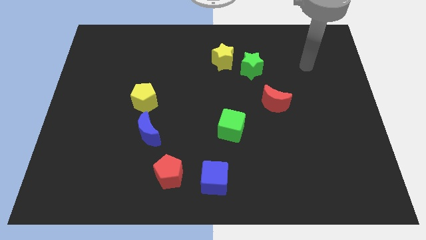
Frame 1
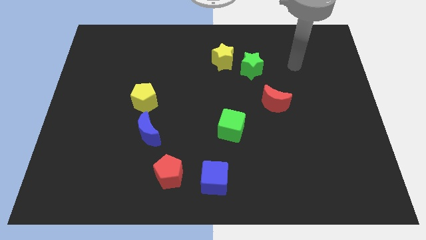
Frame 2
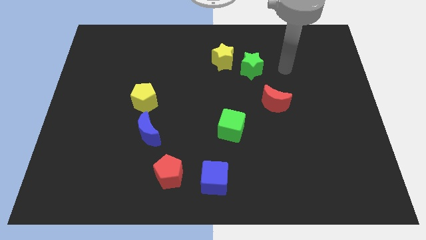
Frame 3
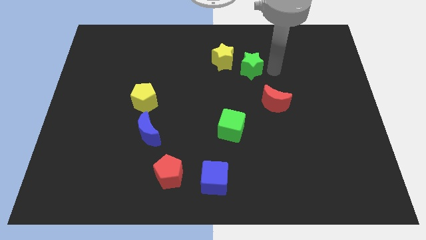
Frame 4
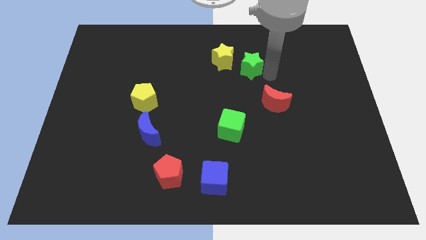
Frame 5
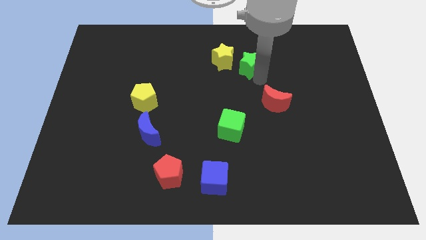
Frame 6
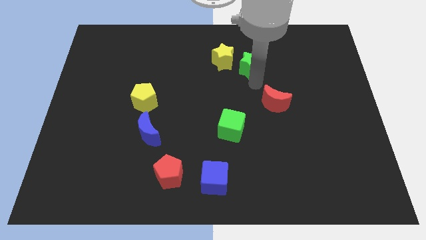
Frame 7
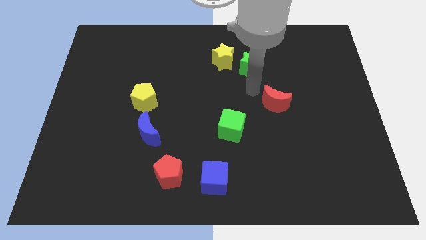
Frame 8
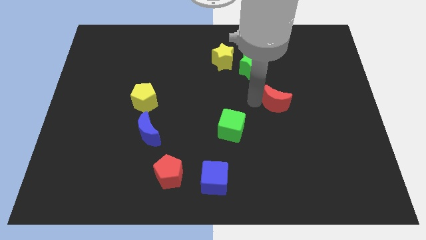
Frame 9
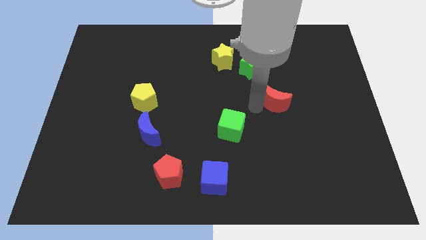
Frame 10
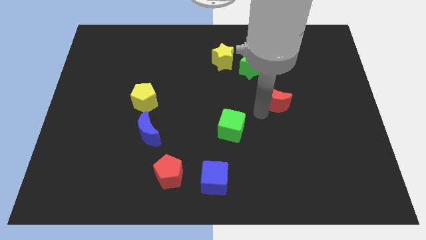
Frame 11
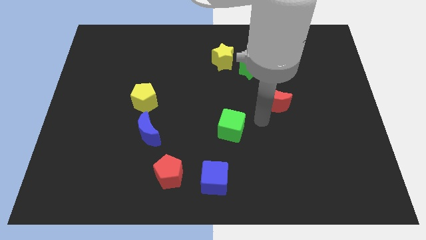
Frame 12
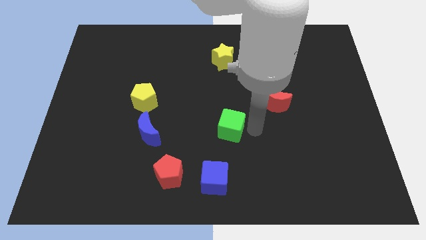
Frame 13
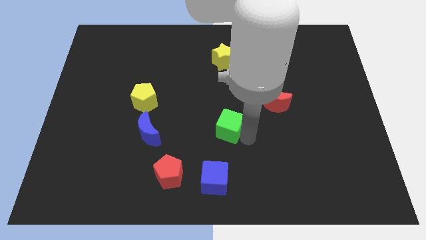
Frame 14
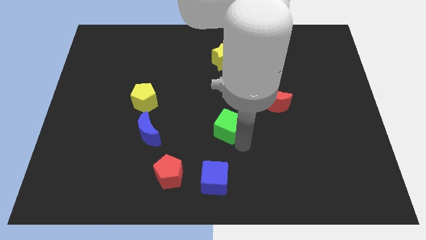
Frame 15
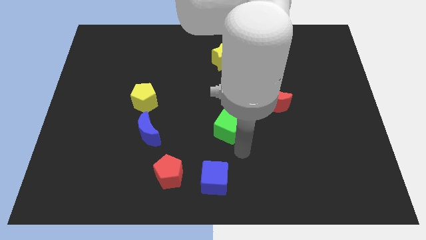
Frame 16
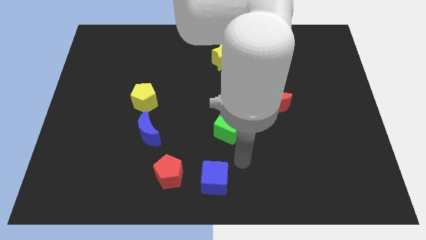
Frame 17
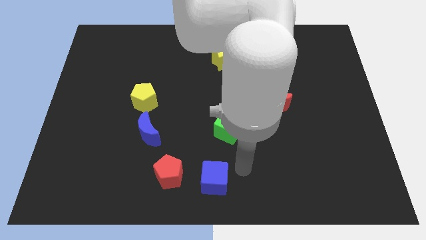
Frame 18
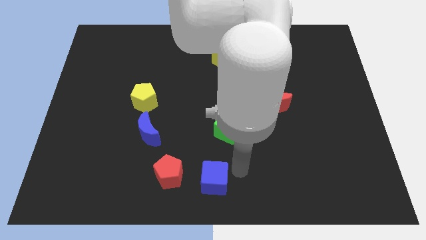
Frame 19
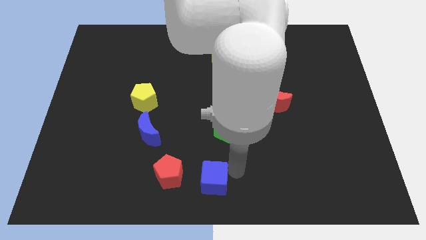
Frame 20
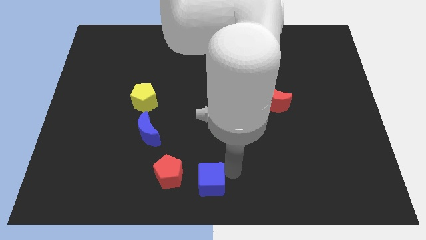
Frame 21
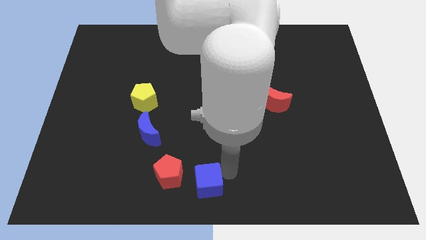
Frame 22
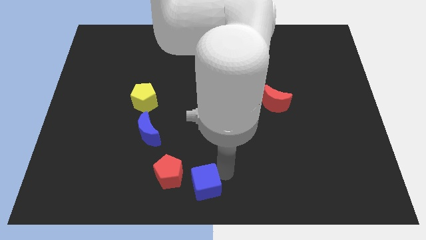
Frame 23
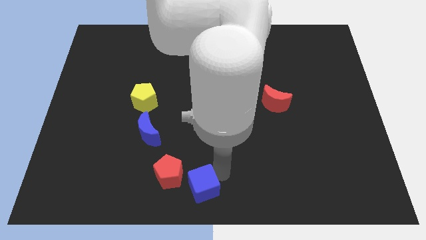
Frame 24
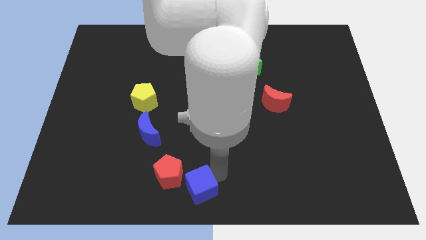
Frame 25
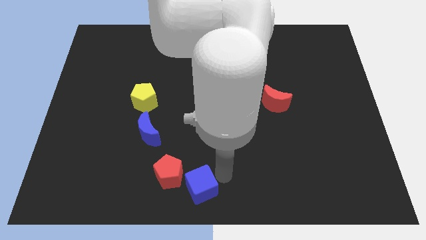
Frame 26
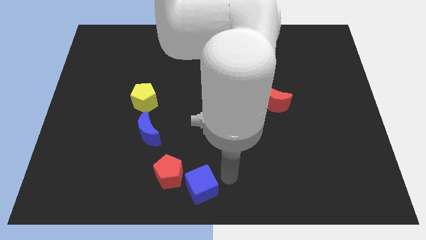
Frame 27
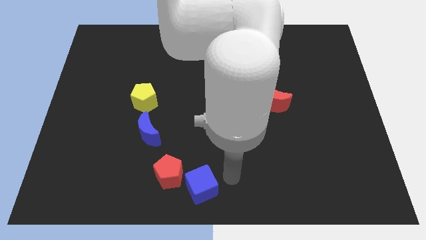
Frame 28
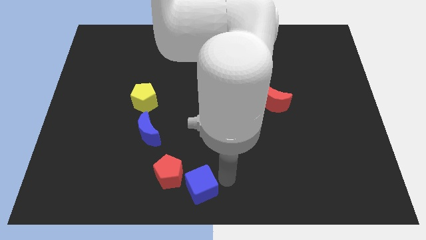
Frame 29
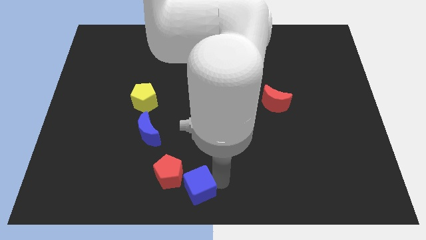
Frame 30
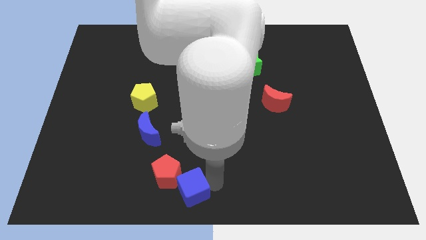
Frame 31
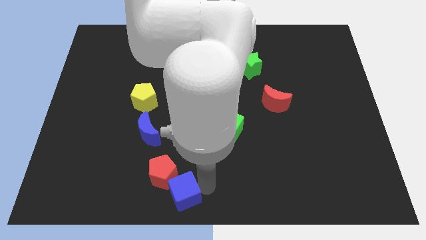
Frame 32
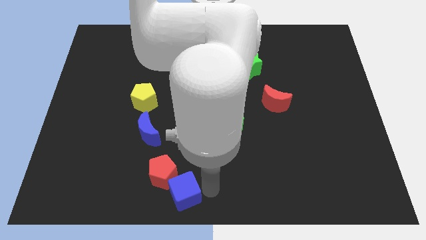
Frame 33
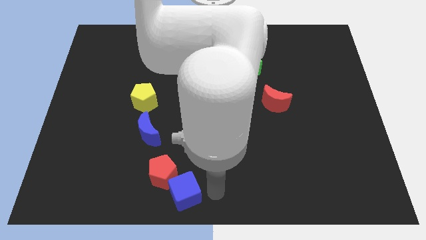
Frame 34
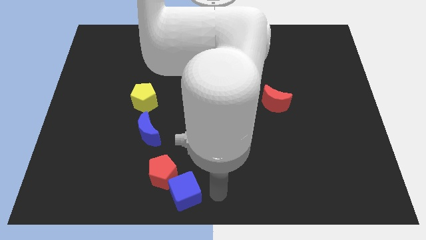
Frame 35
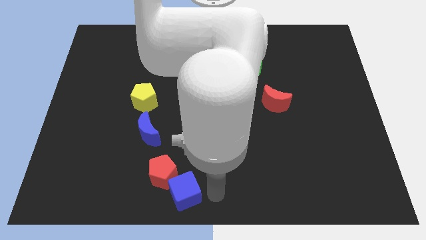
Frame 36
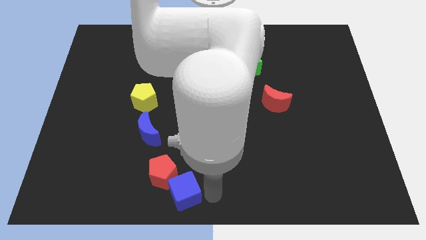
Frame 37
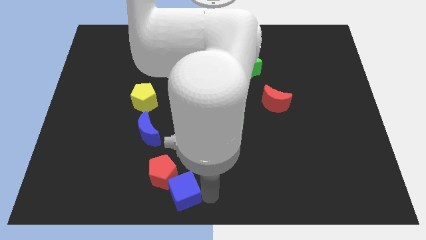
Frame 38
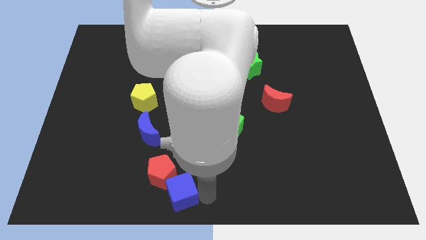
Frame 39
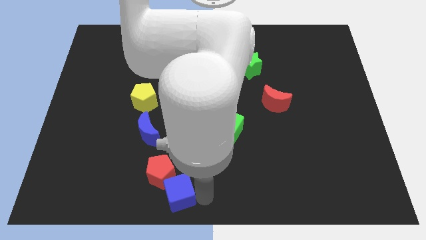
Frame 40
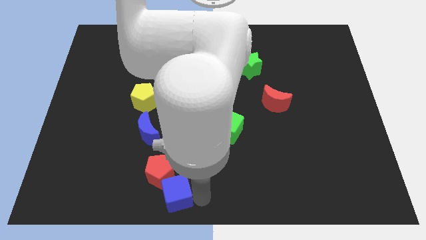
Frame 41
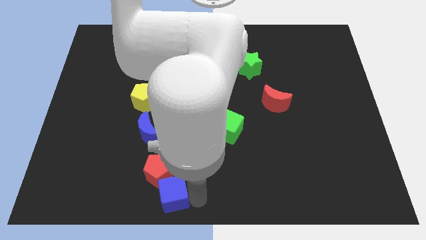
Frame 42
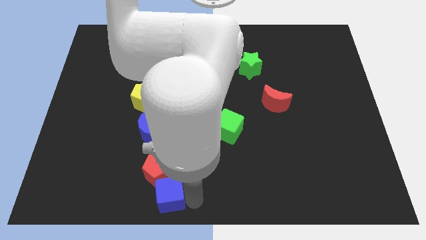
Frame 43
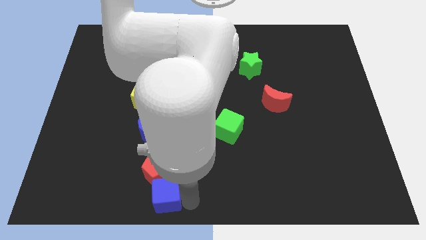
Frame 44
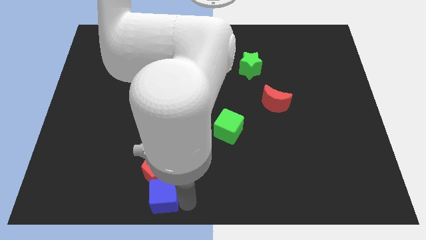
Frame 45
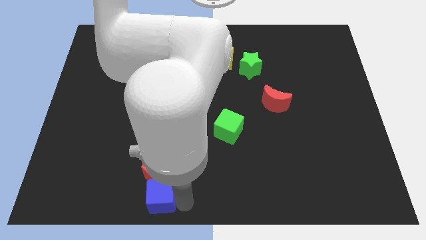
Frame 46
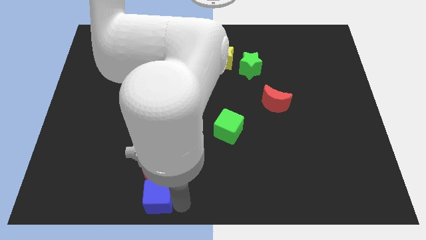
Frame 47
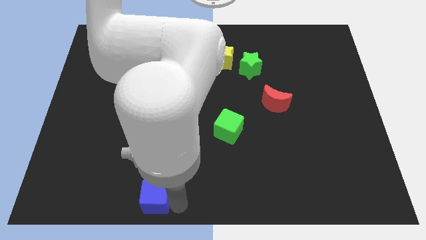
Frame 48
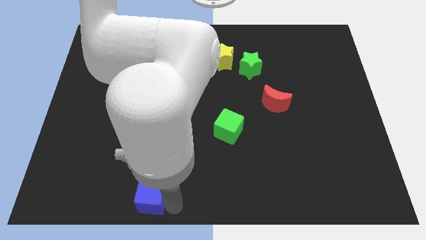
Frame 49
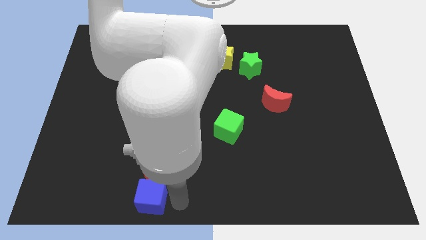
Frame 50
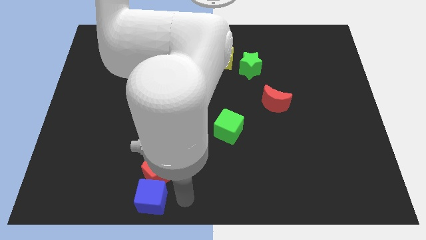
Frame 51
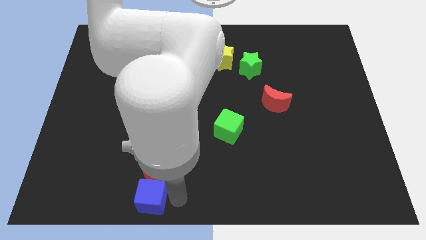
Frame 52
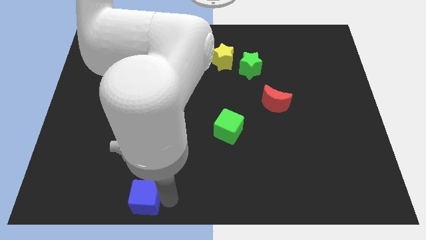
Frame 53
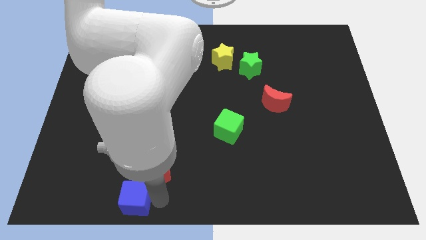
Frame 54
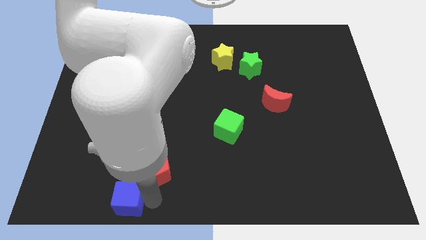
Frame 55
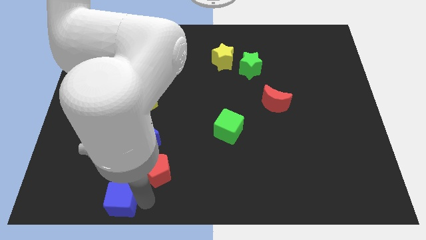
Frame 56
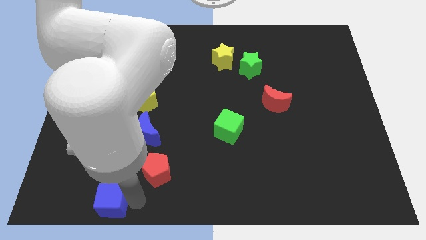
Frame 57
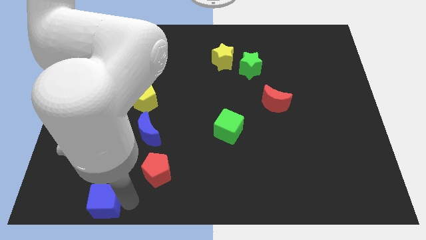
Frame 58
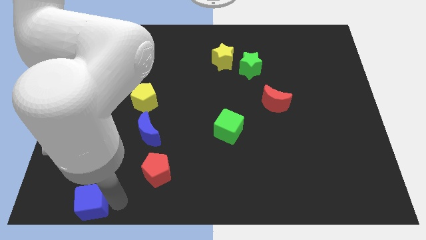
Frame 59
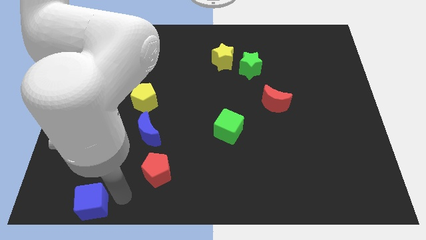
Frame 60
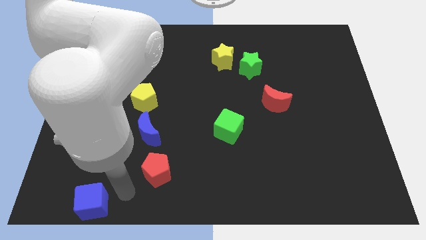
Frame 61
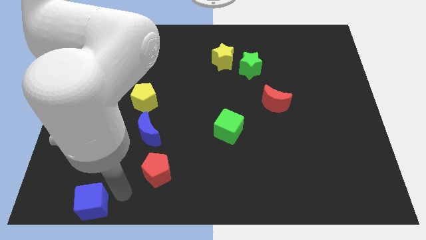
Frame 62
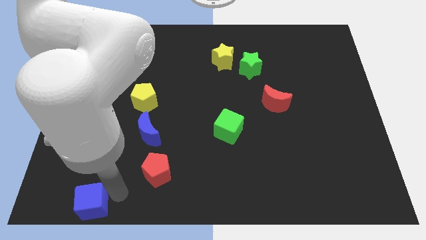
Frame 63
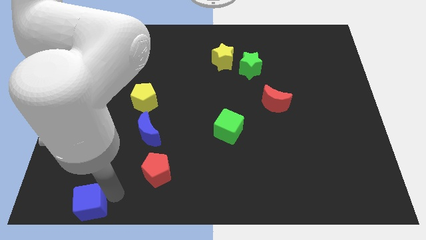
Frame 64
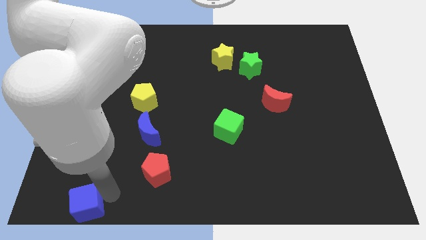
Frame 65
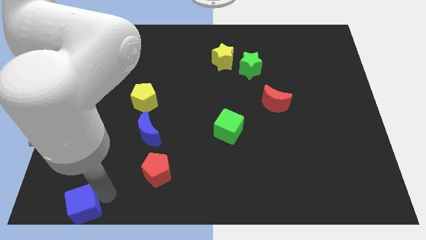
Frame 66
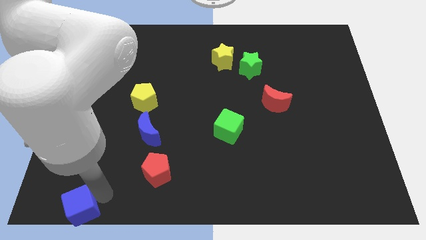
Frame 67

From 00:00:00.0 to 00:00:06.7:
move the blue cube to the lower left corner
